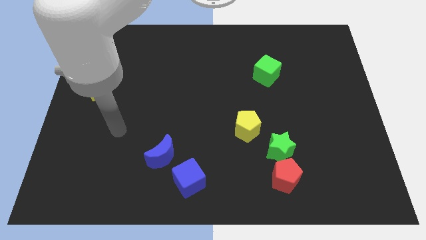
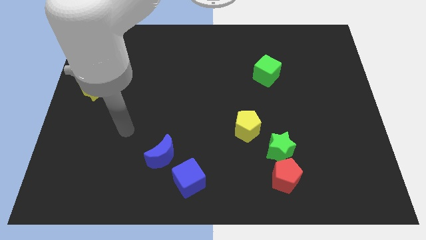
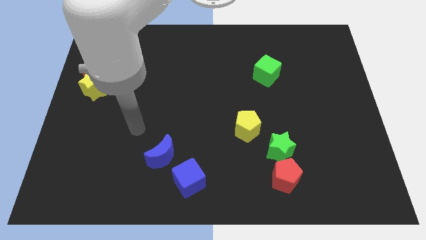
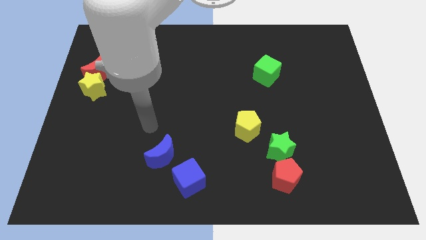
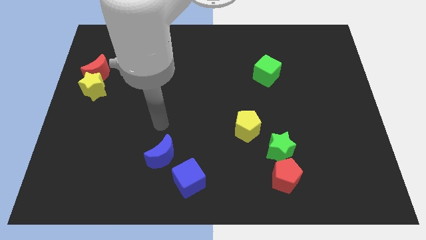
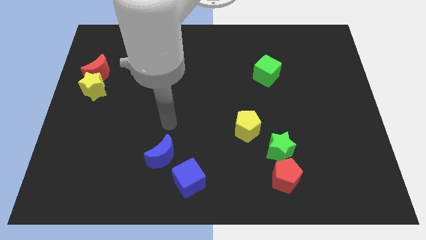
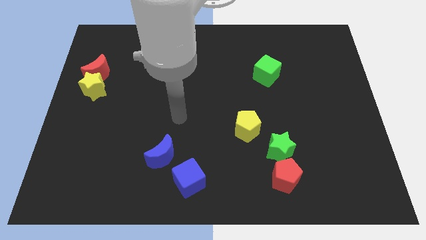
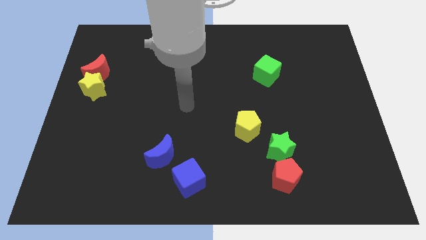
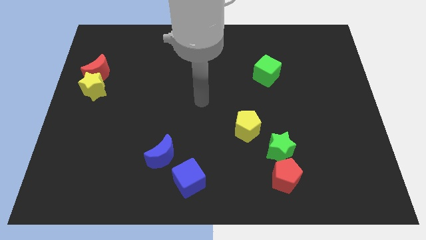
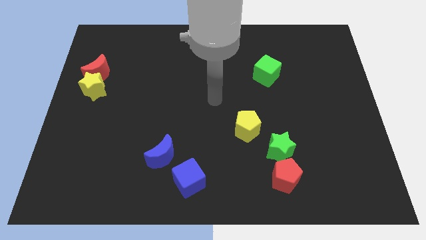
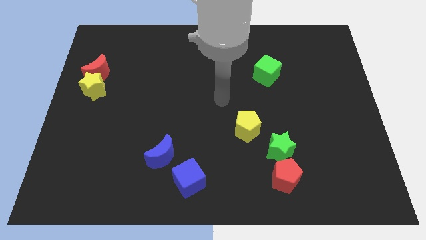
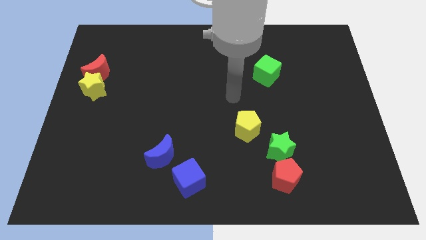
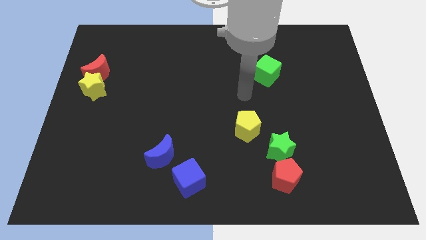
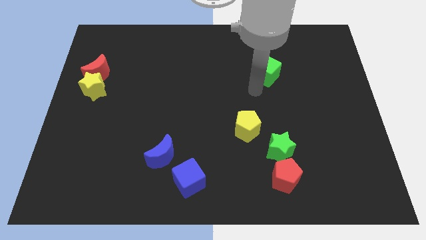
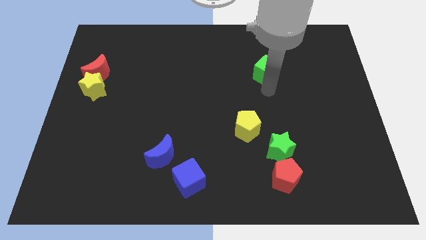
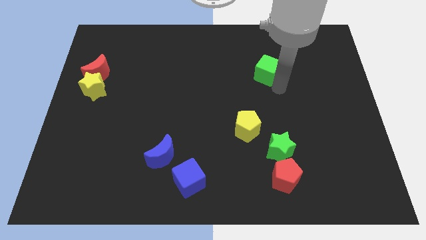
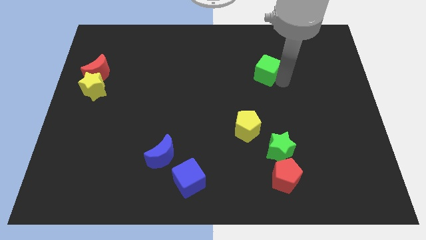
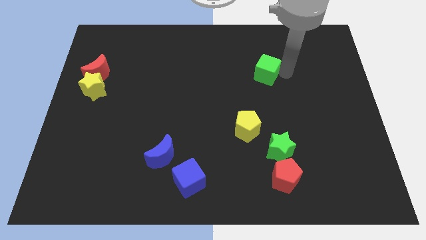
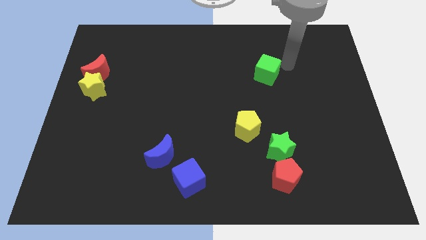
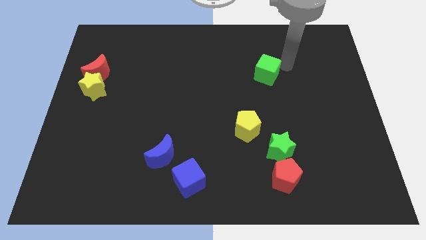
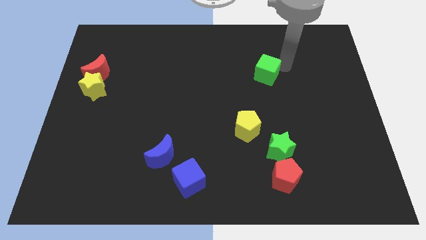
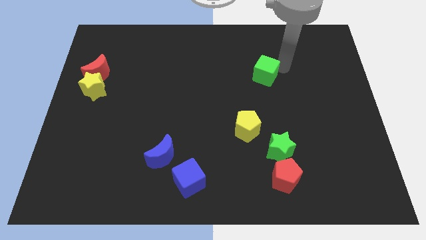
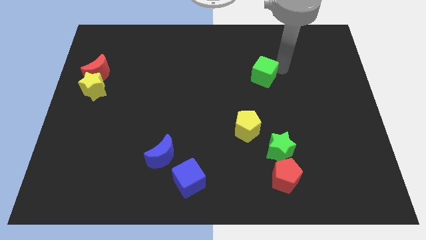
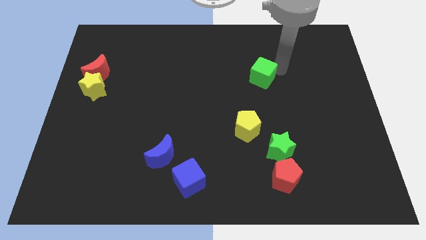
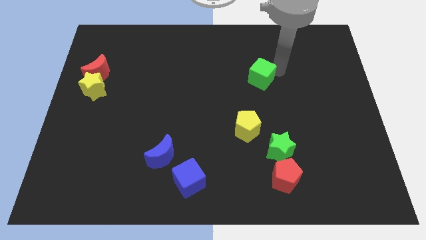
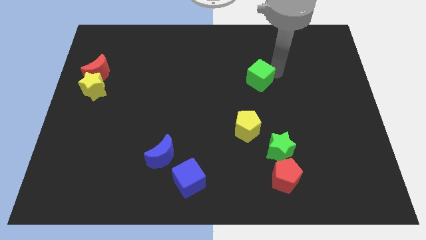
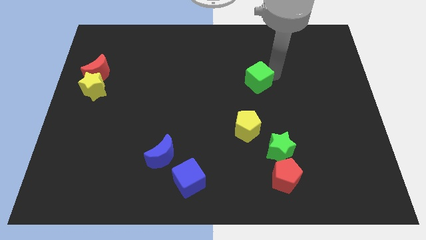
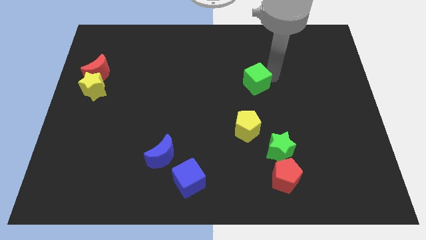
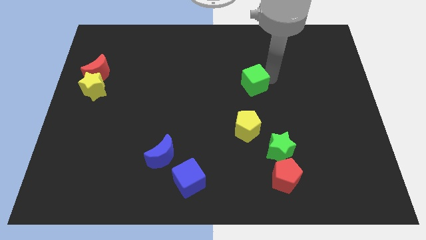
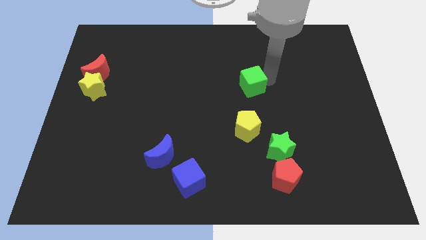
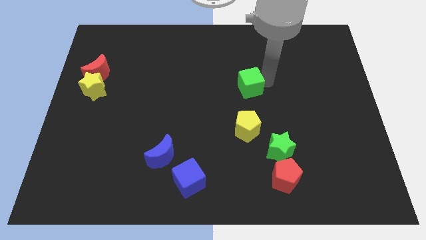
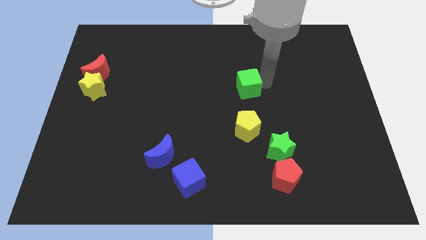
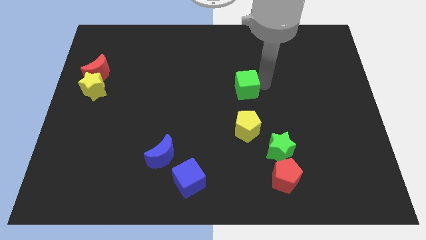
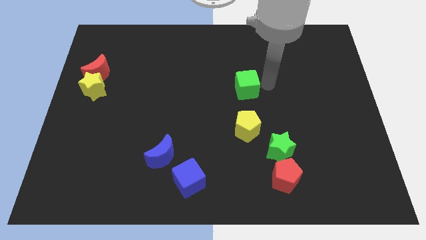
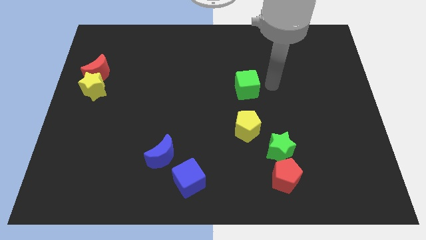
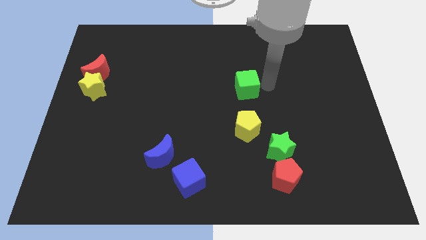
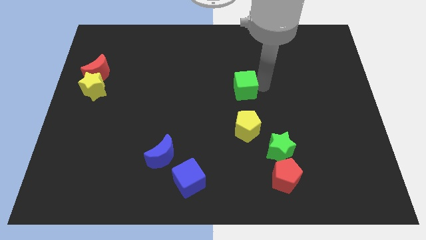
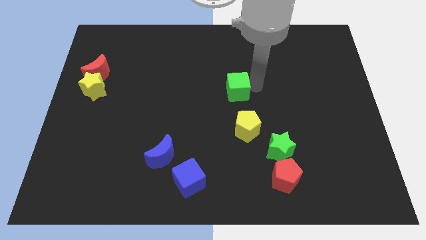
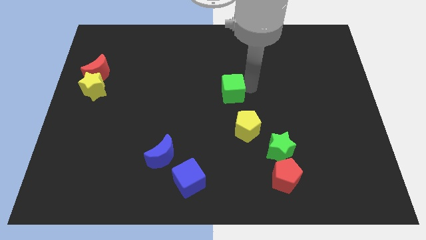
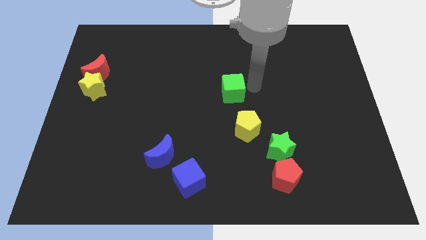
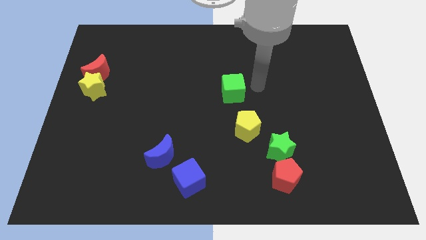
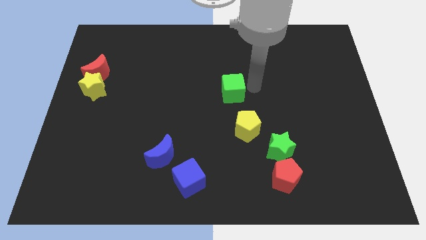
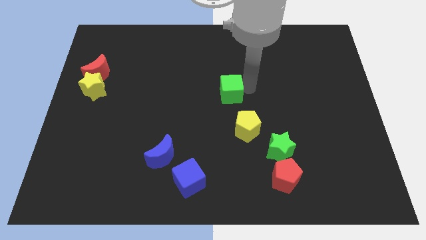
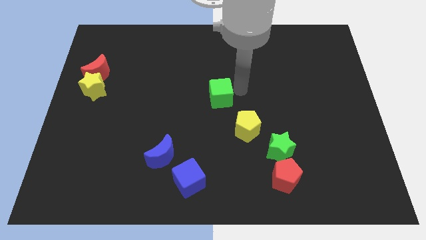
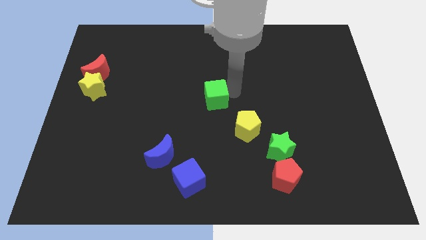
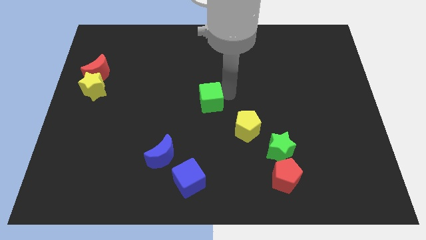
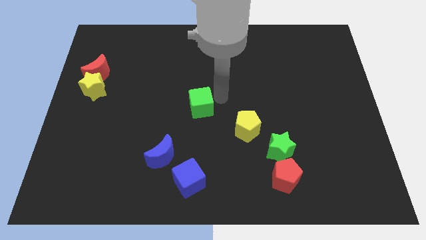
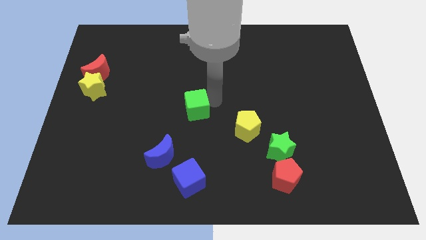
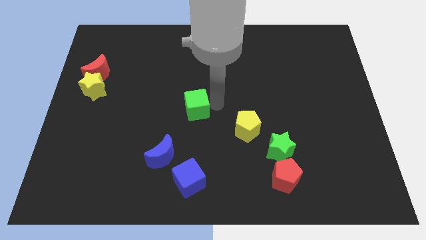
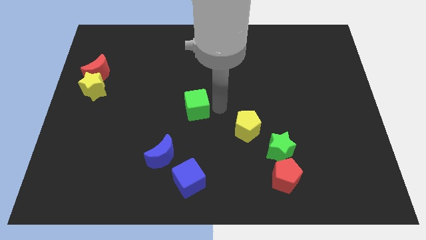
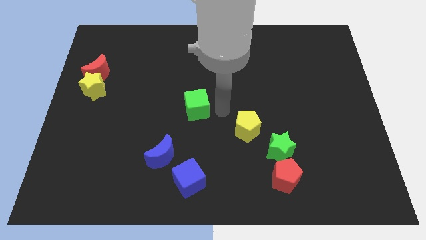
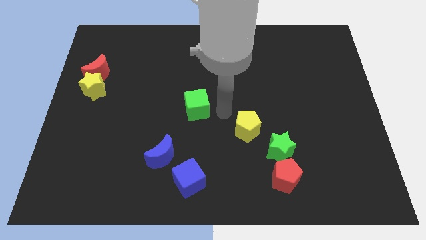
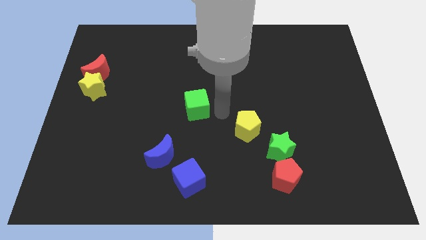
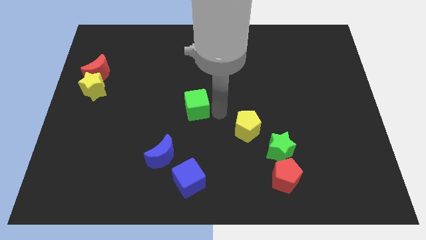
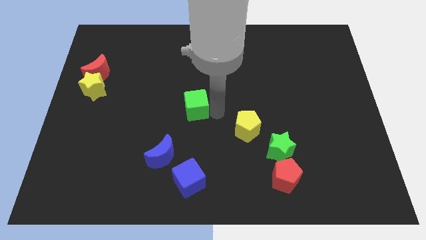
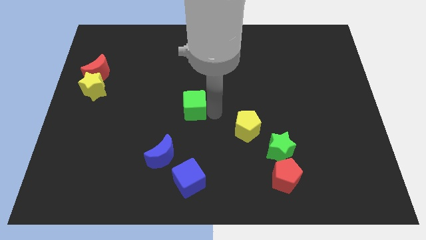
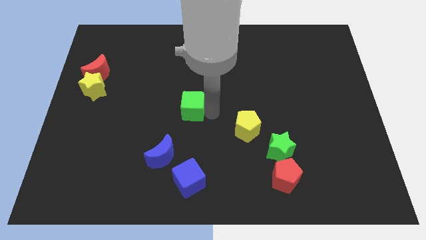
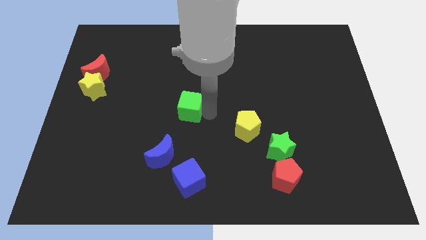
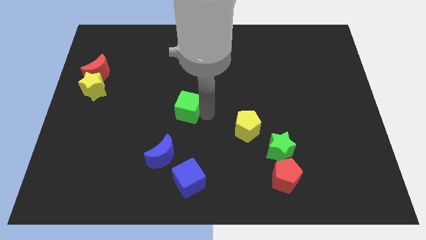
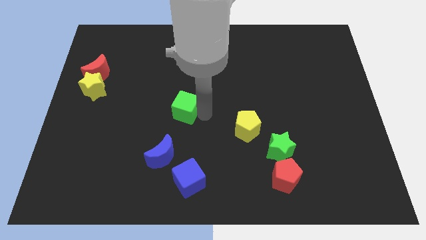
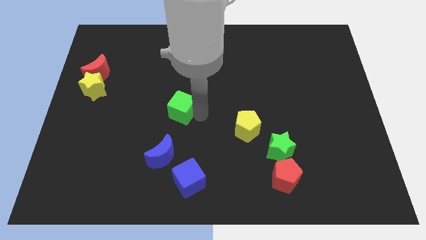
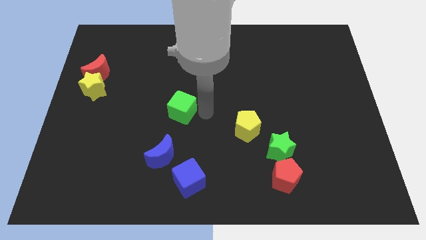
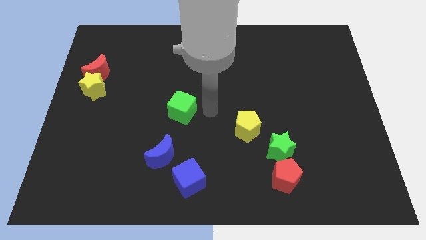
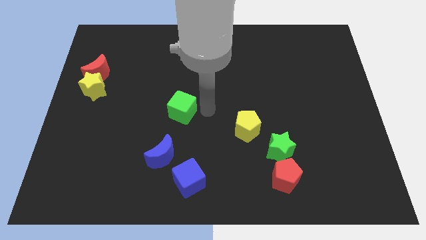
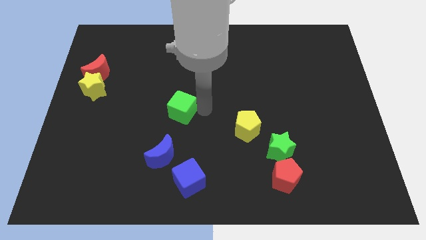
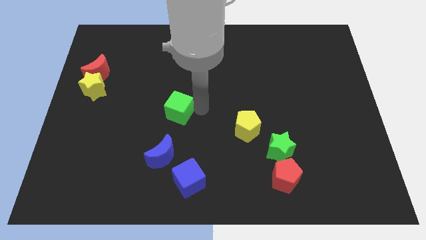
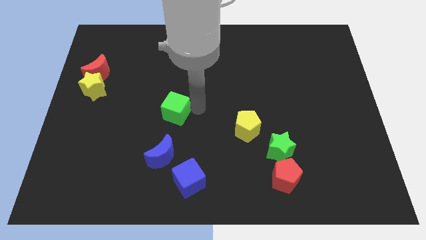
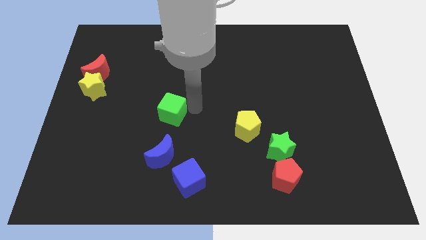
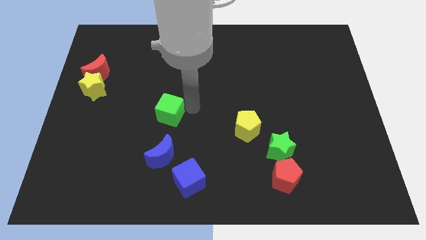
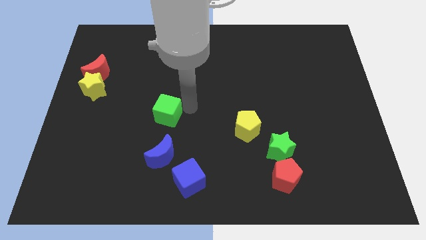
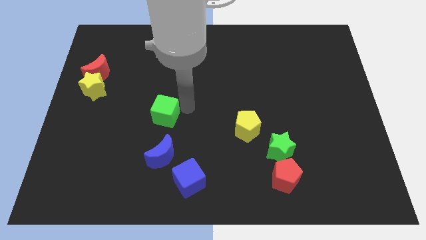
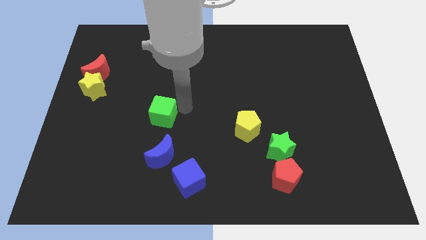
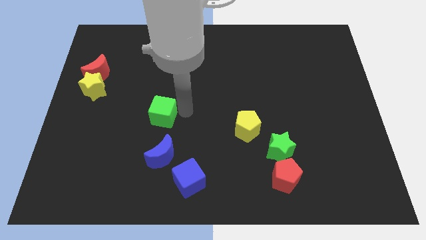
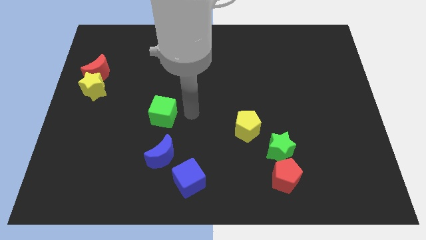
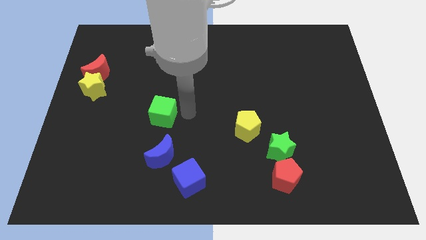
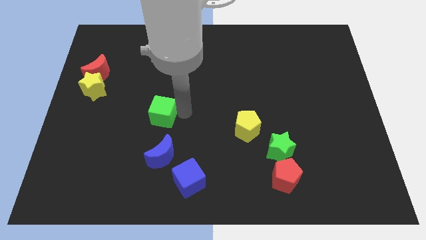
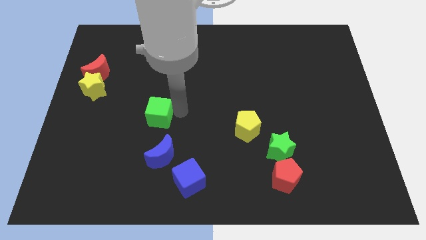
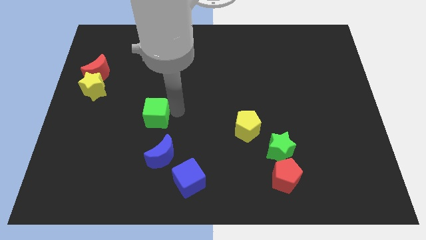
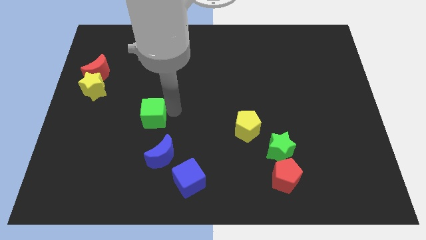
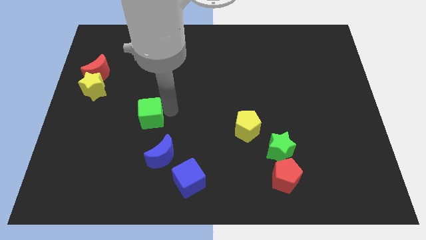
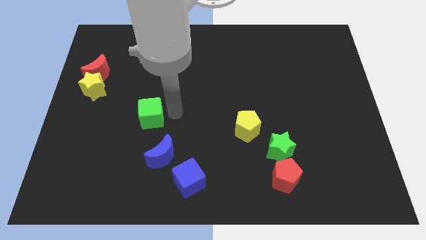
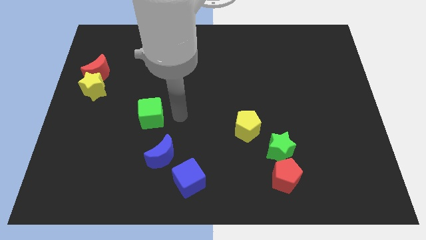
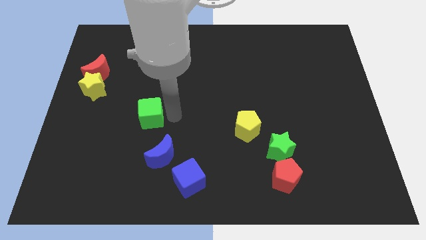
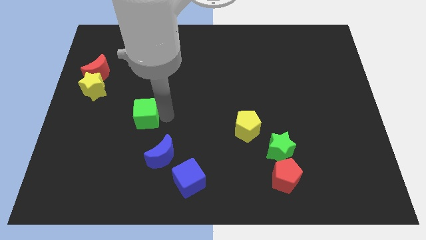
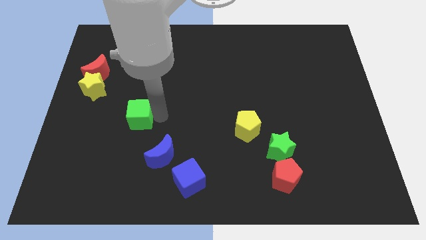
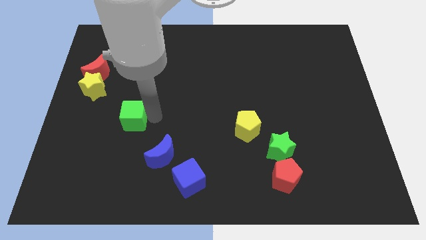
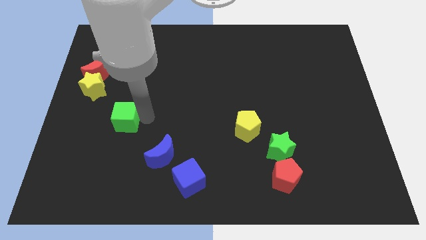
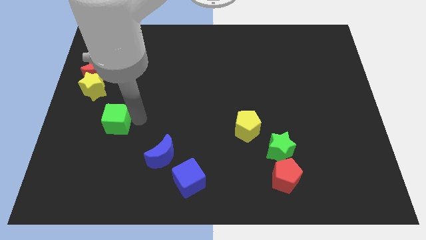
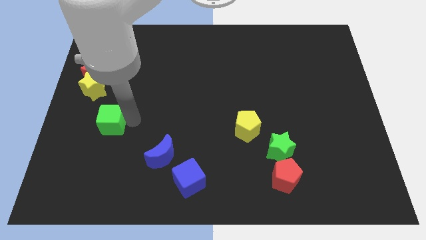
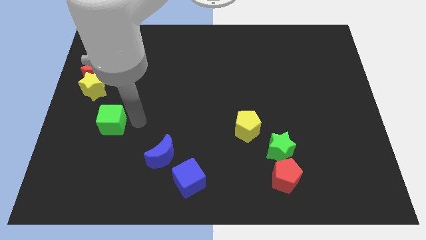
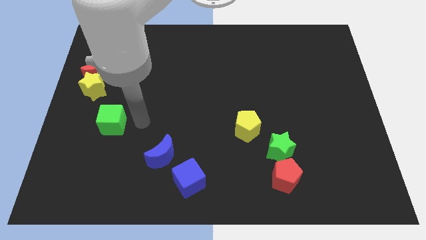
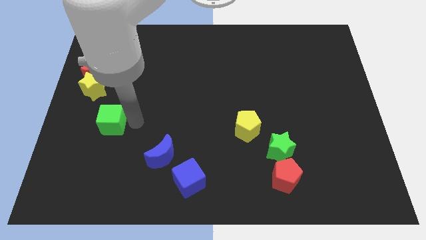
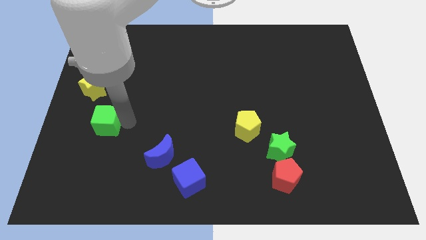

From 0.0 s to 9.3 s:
put the green cube to the bottom of the yellow star
